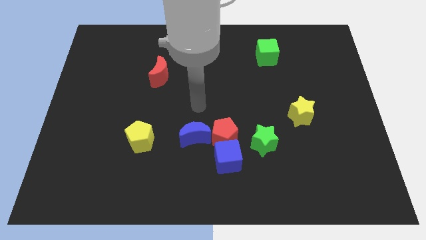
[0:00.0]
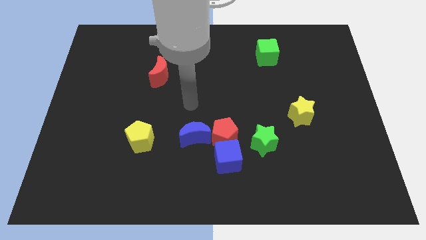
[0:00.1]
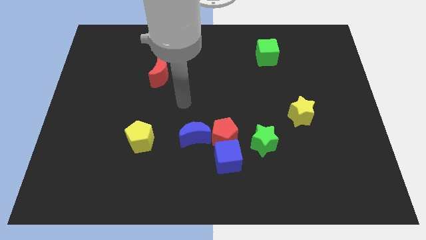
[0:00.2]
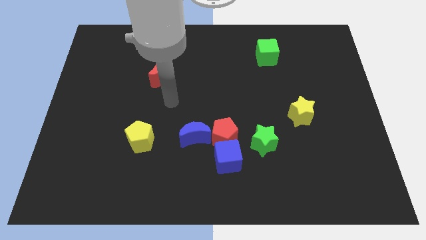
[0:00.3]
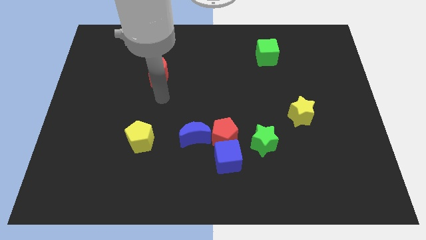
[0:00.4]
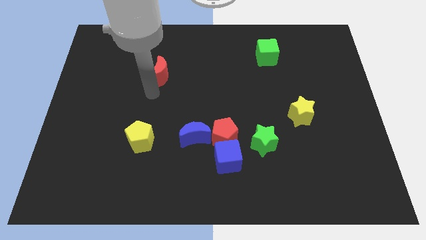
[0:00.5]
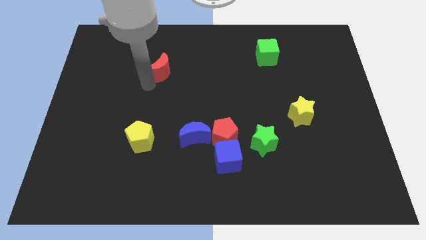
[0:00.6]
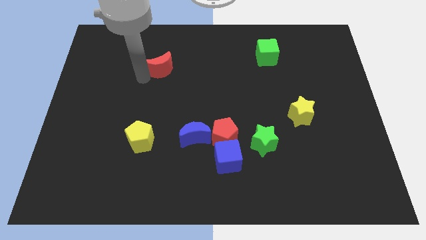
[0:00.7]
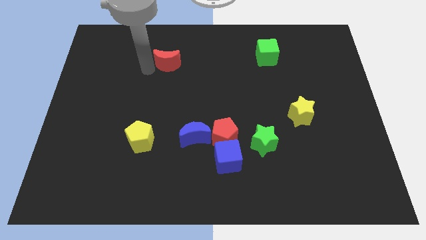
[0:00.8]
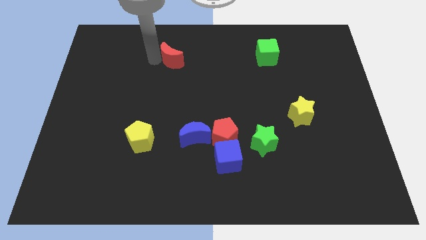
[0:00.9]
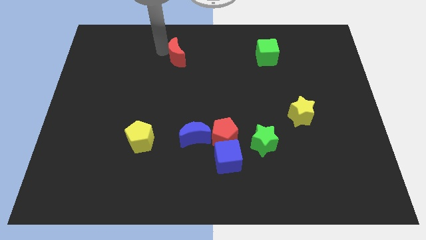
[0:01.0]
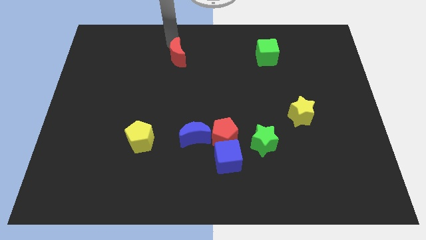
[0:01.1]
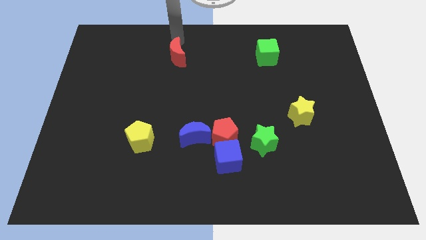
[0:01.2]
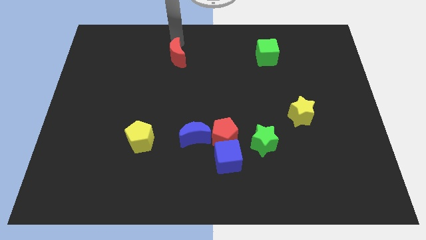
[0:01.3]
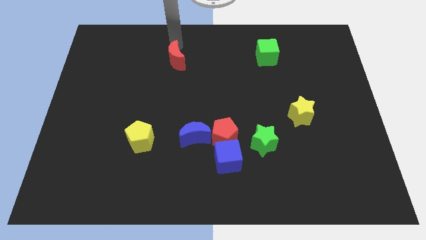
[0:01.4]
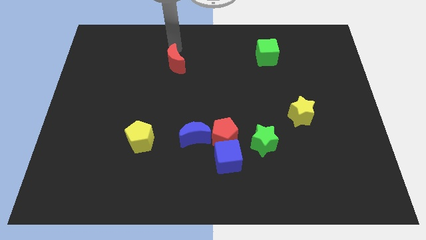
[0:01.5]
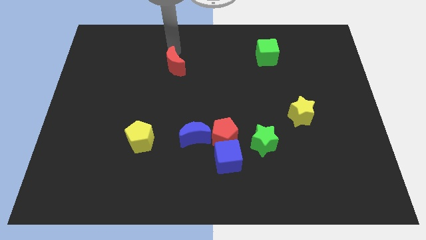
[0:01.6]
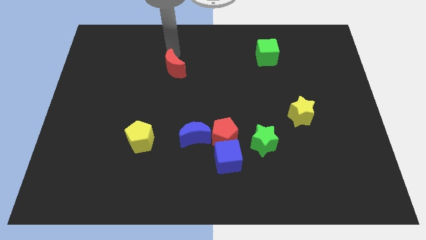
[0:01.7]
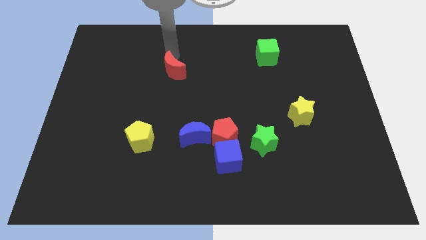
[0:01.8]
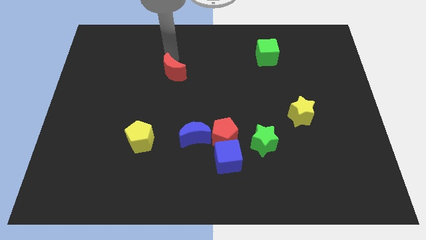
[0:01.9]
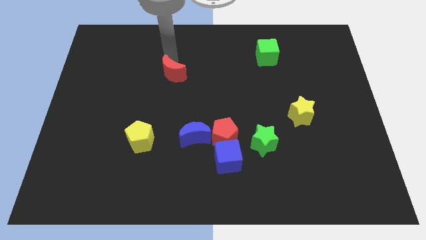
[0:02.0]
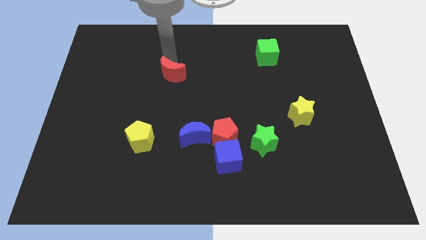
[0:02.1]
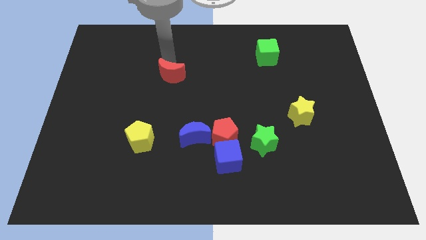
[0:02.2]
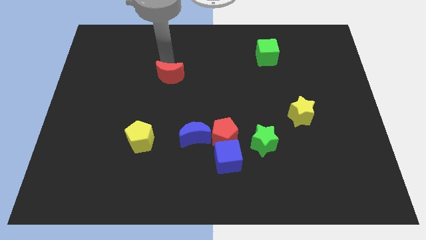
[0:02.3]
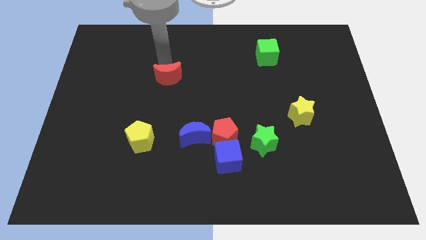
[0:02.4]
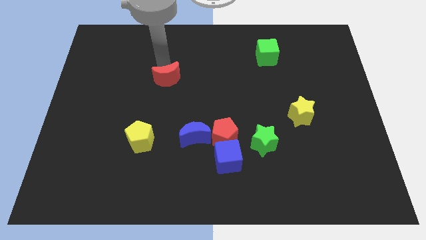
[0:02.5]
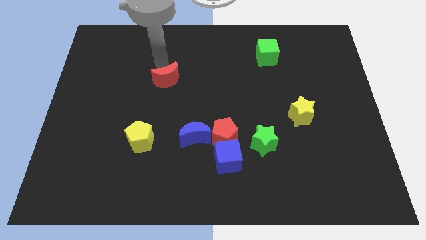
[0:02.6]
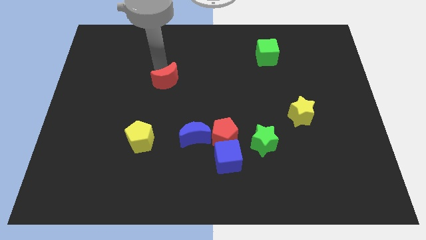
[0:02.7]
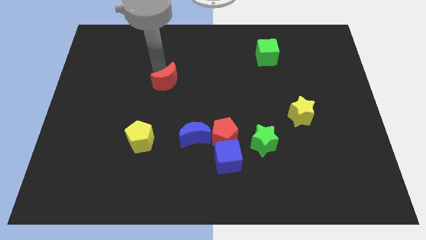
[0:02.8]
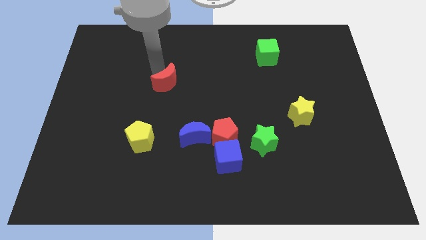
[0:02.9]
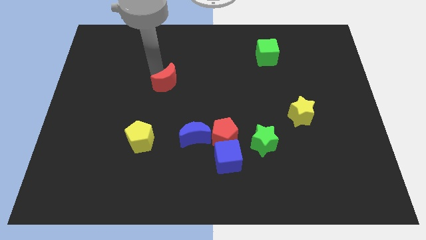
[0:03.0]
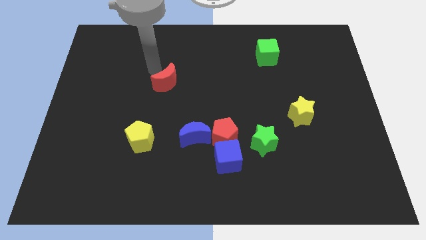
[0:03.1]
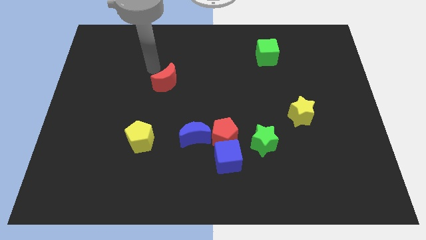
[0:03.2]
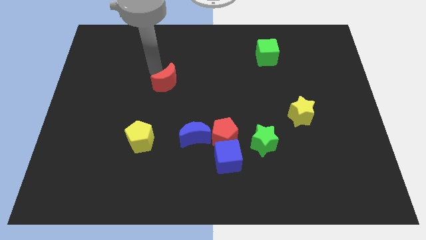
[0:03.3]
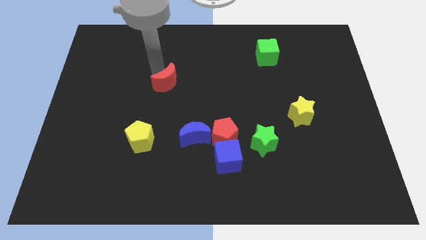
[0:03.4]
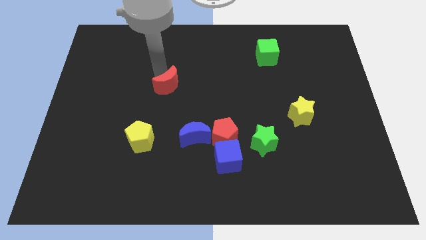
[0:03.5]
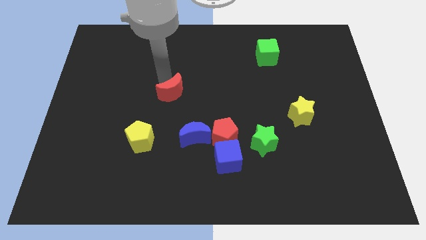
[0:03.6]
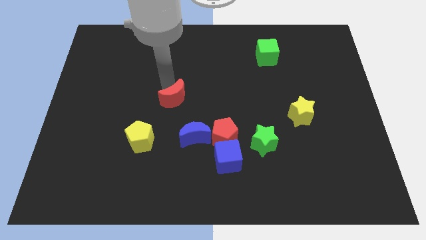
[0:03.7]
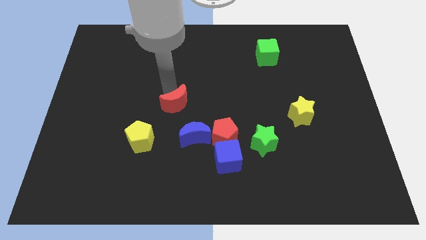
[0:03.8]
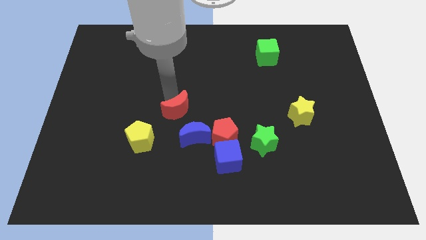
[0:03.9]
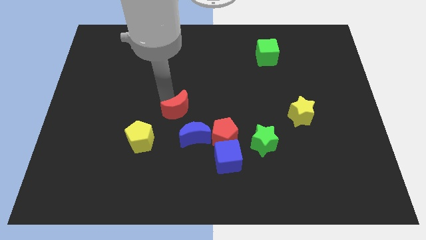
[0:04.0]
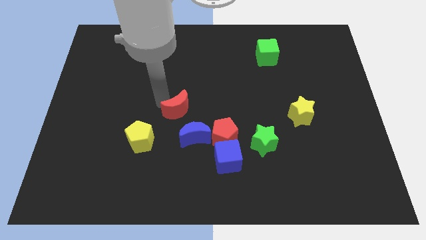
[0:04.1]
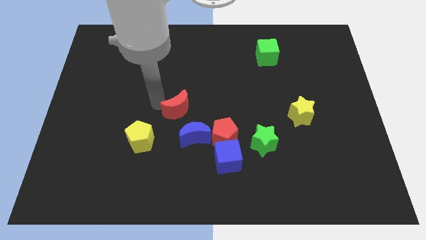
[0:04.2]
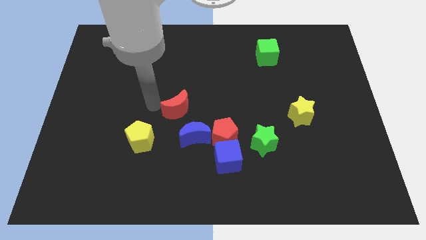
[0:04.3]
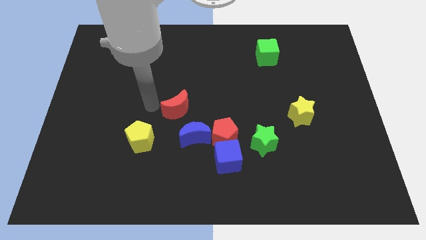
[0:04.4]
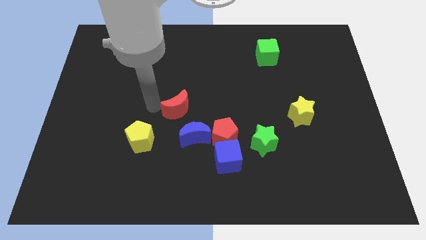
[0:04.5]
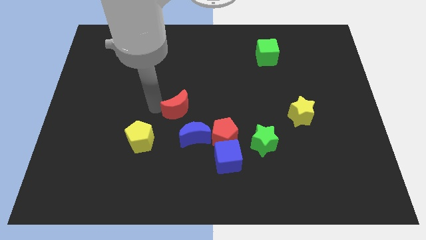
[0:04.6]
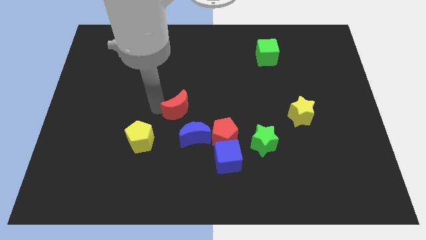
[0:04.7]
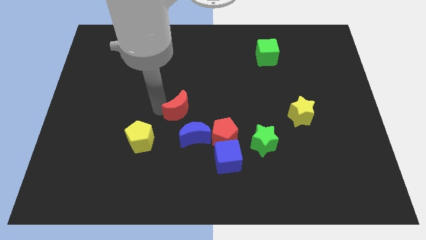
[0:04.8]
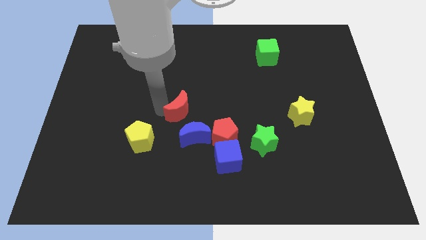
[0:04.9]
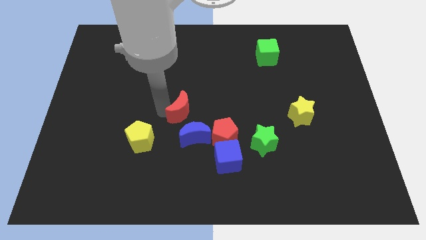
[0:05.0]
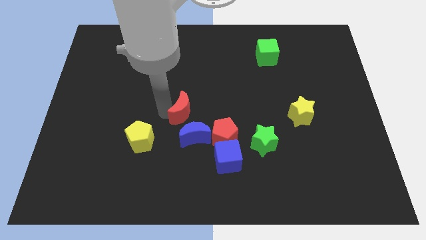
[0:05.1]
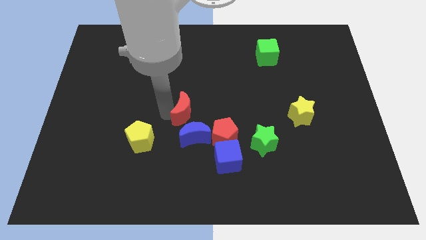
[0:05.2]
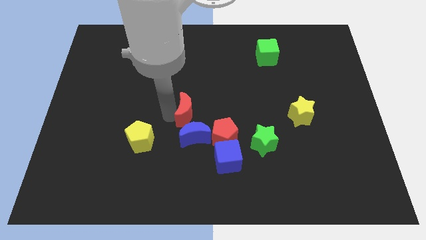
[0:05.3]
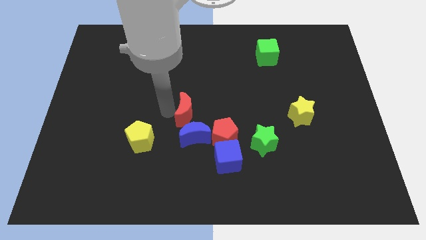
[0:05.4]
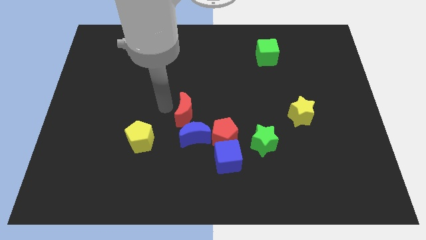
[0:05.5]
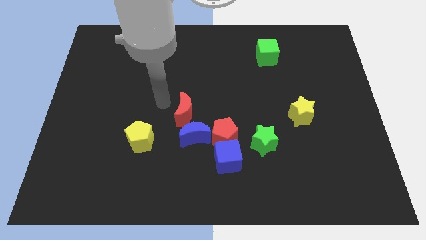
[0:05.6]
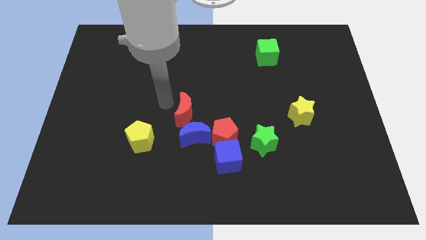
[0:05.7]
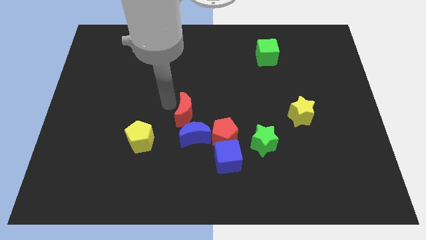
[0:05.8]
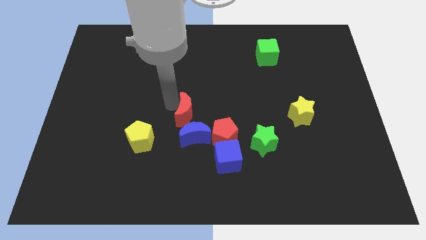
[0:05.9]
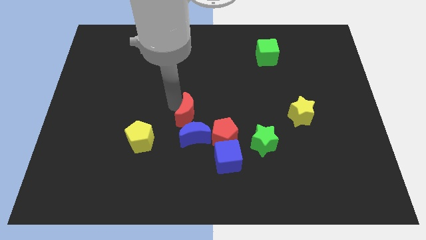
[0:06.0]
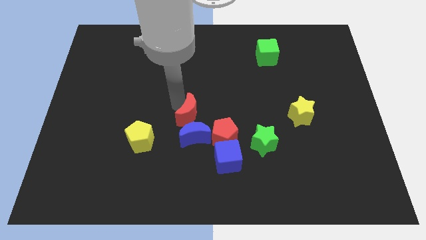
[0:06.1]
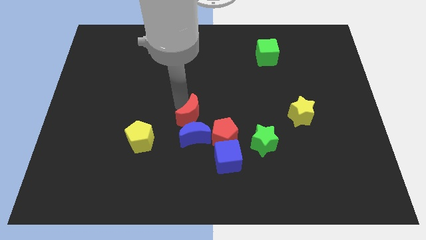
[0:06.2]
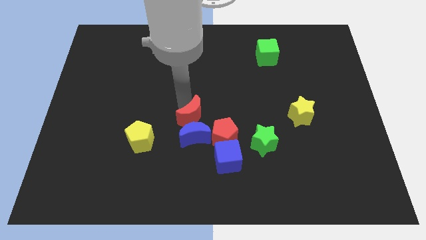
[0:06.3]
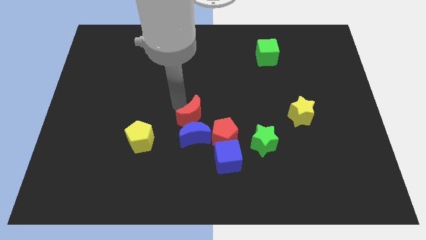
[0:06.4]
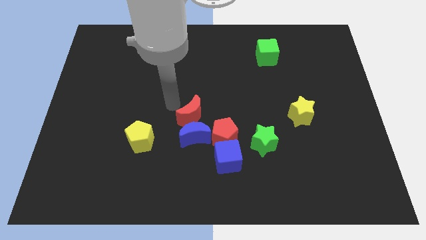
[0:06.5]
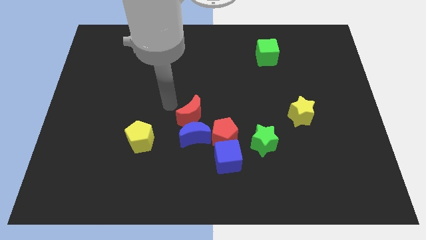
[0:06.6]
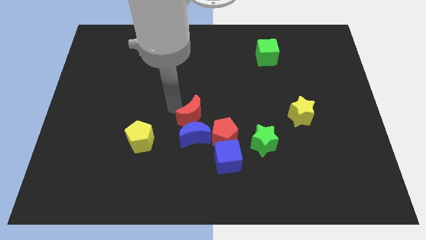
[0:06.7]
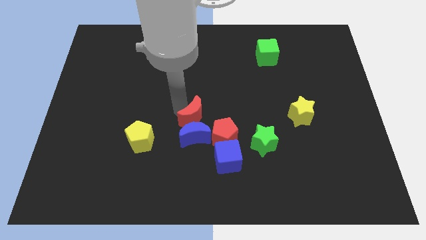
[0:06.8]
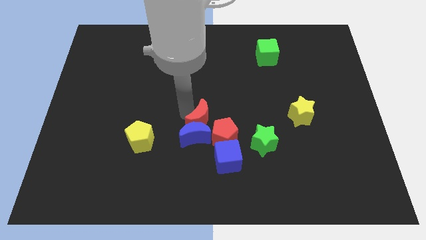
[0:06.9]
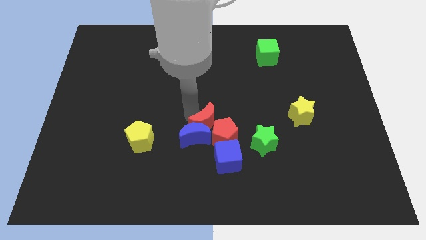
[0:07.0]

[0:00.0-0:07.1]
push the red moon towards the red pentagon
